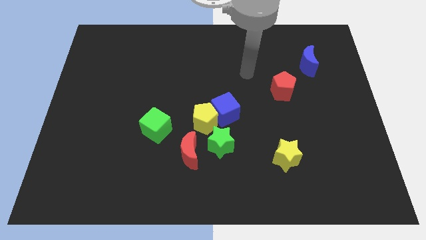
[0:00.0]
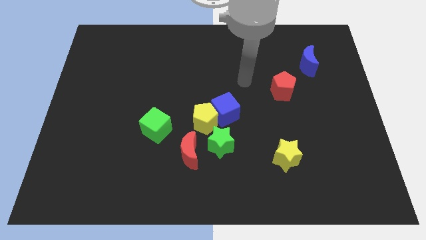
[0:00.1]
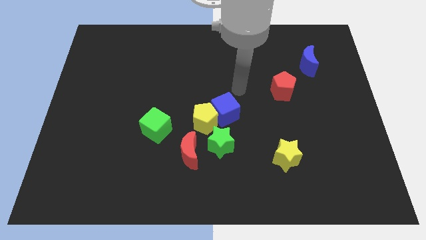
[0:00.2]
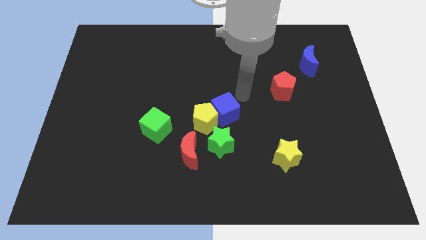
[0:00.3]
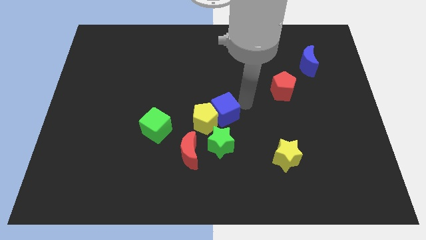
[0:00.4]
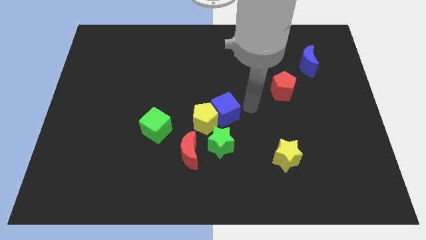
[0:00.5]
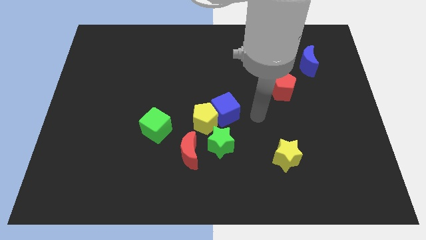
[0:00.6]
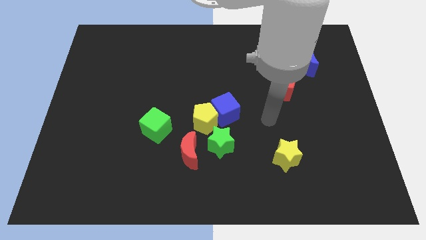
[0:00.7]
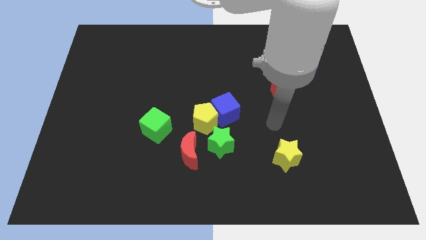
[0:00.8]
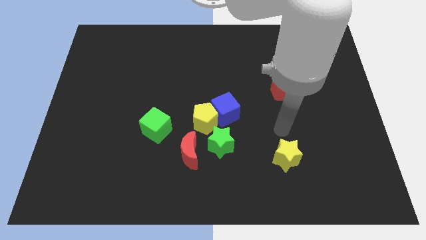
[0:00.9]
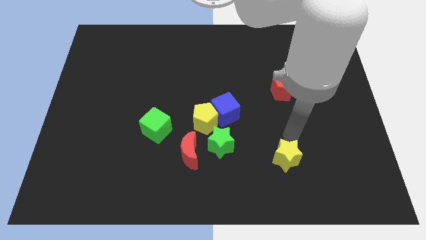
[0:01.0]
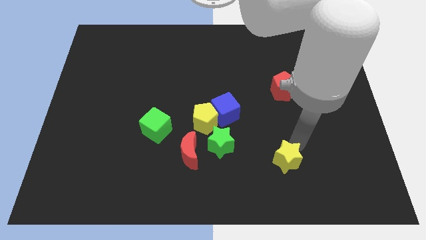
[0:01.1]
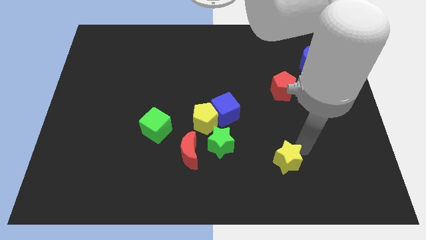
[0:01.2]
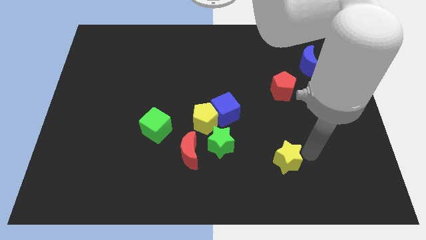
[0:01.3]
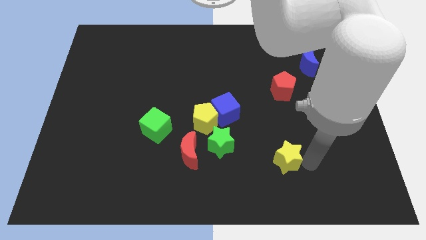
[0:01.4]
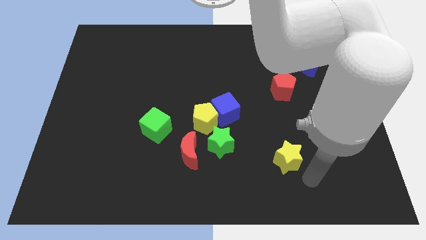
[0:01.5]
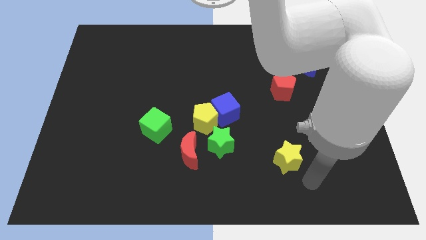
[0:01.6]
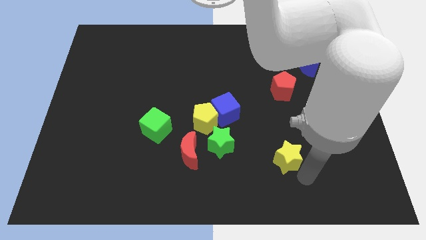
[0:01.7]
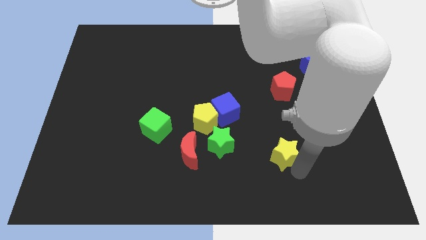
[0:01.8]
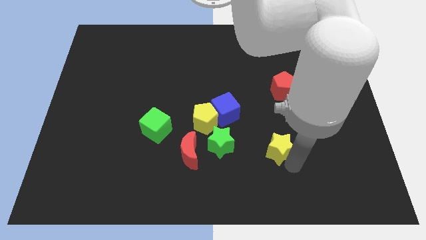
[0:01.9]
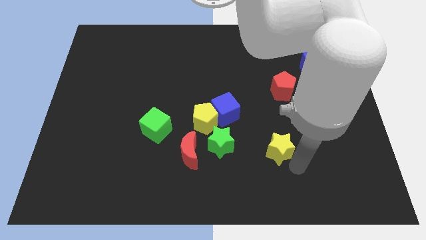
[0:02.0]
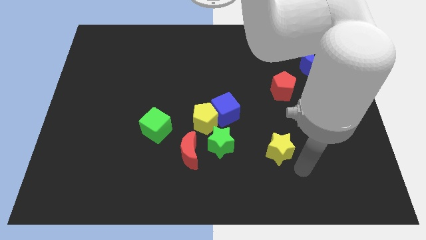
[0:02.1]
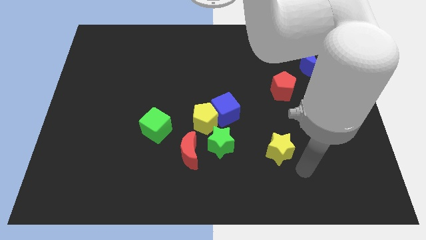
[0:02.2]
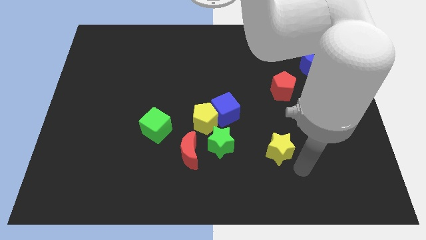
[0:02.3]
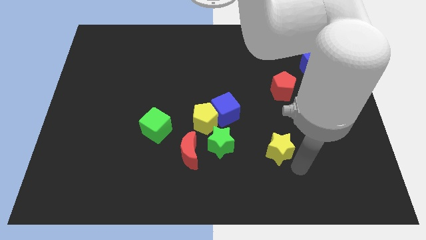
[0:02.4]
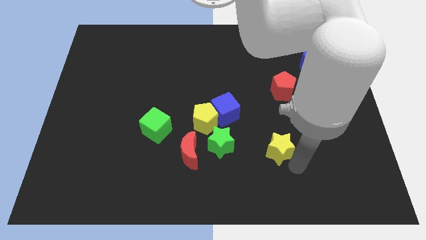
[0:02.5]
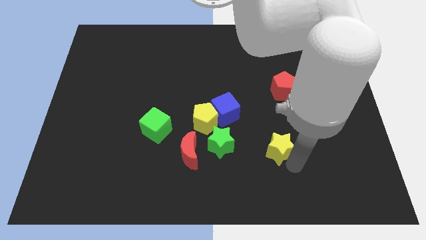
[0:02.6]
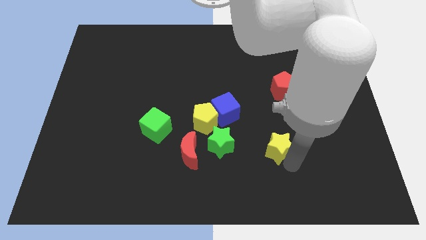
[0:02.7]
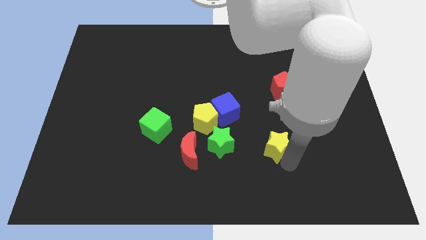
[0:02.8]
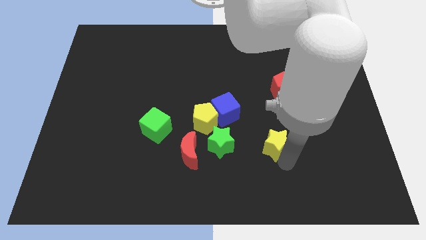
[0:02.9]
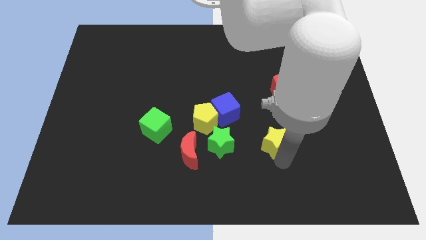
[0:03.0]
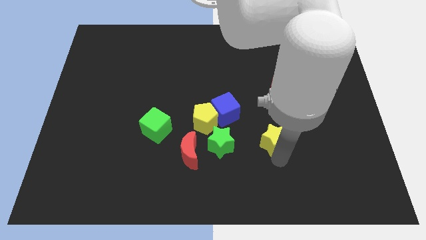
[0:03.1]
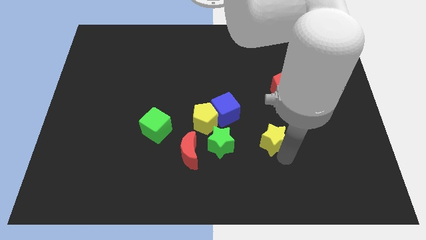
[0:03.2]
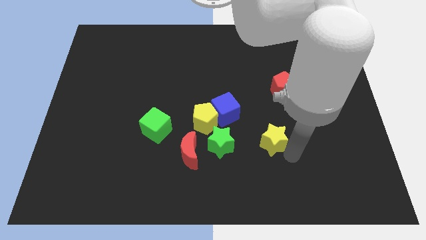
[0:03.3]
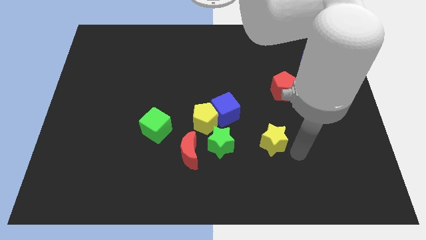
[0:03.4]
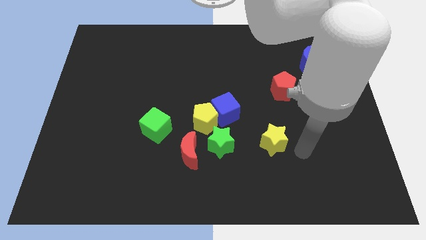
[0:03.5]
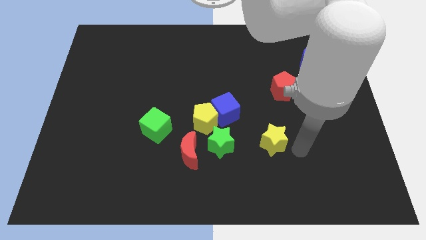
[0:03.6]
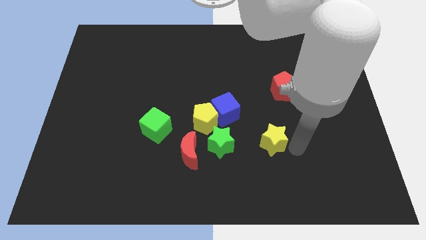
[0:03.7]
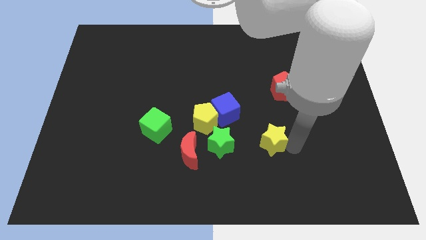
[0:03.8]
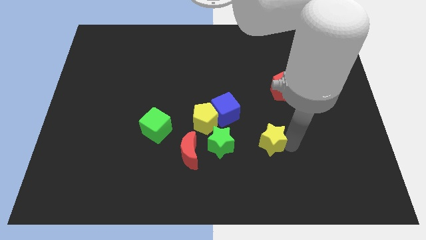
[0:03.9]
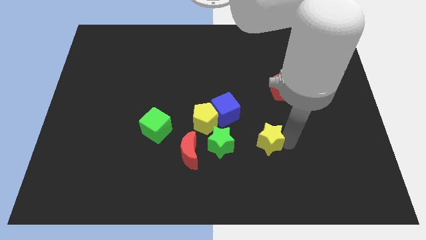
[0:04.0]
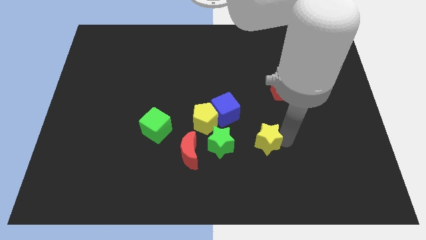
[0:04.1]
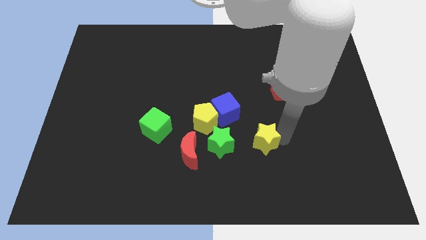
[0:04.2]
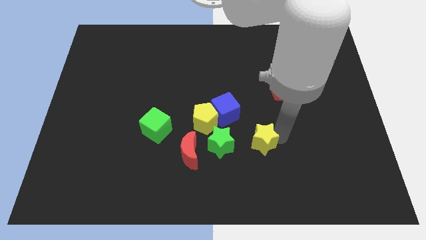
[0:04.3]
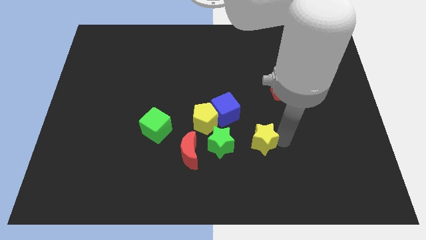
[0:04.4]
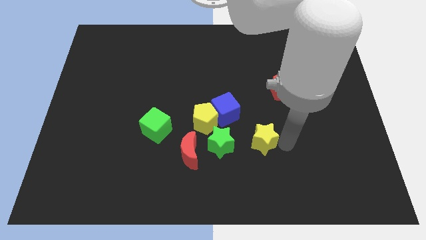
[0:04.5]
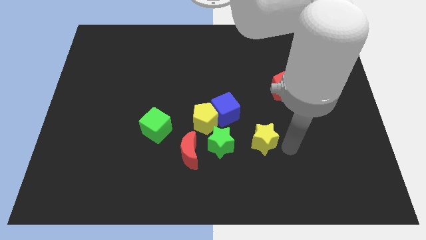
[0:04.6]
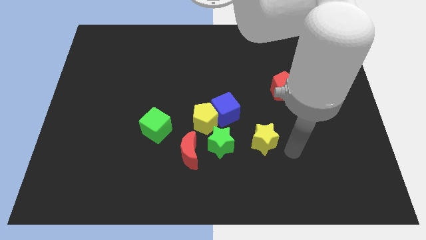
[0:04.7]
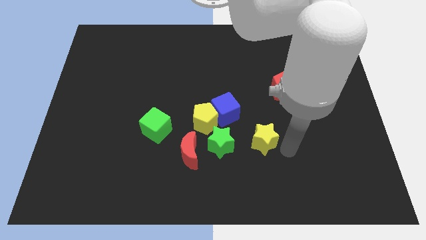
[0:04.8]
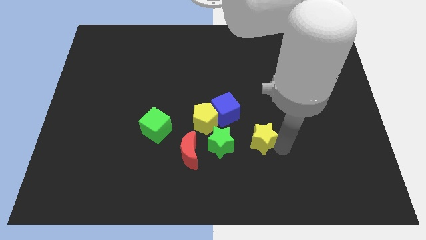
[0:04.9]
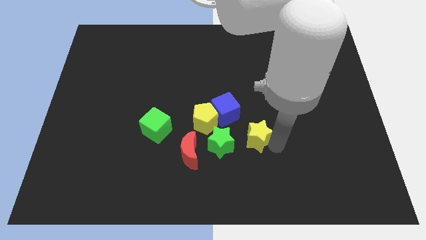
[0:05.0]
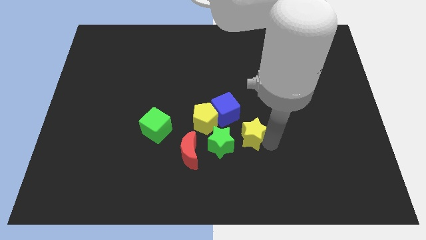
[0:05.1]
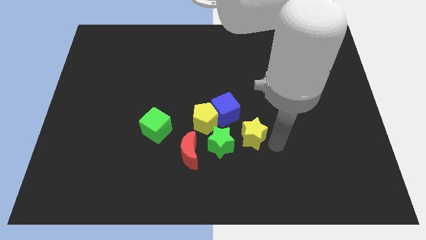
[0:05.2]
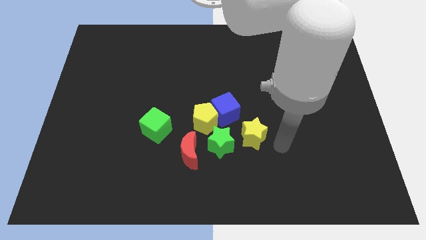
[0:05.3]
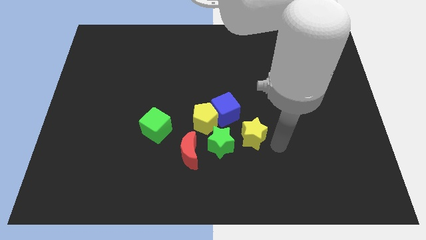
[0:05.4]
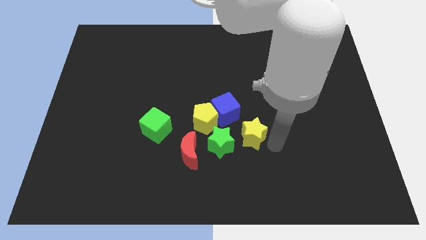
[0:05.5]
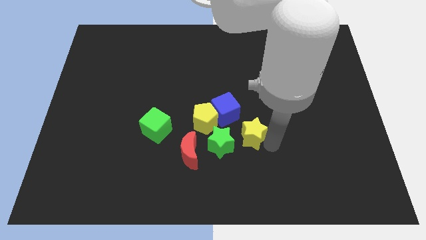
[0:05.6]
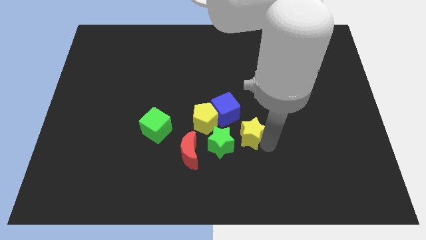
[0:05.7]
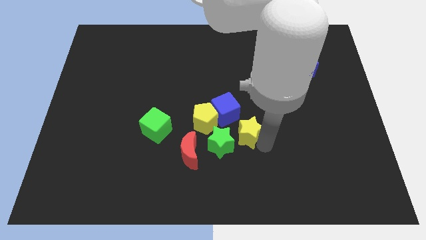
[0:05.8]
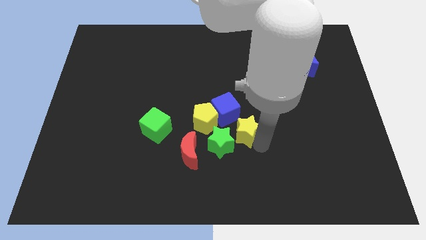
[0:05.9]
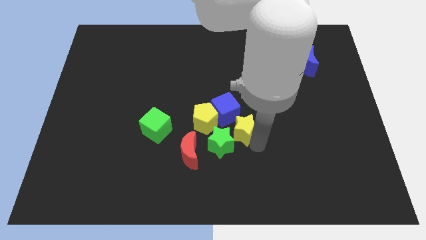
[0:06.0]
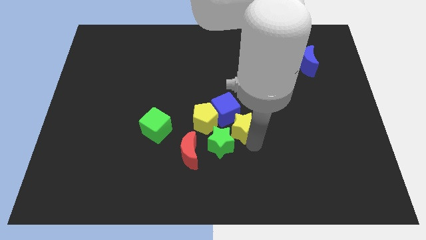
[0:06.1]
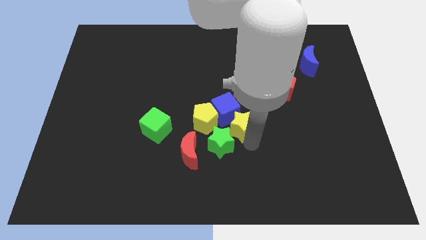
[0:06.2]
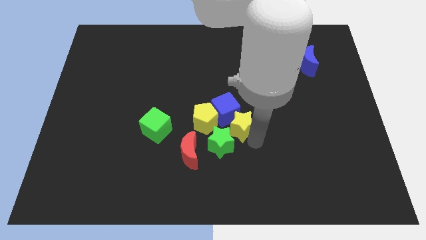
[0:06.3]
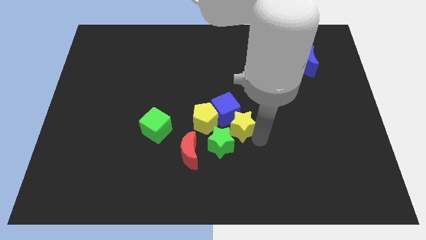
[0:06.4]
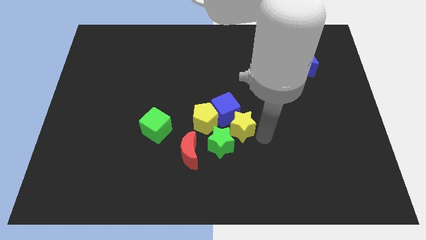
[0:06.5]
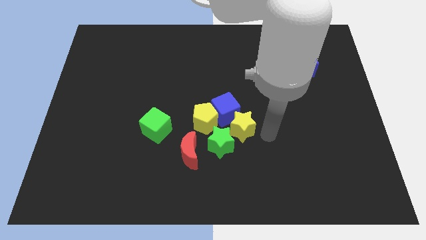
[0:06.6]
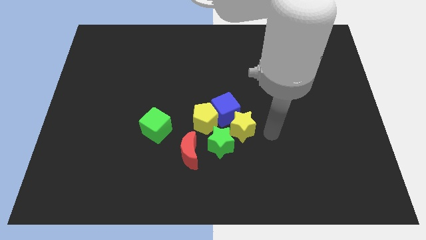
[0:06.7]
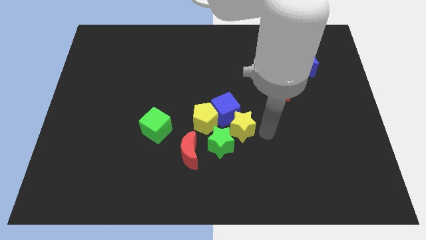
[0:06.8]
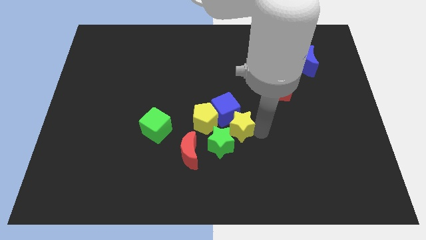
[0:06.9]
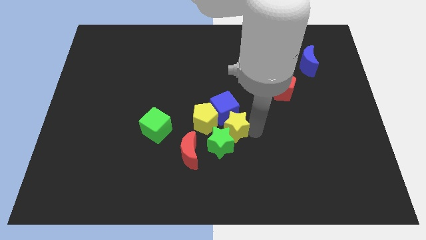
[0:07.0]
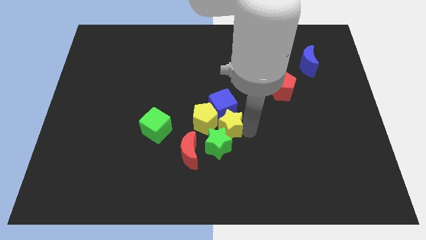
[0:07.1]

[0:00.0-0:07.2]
move the yellow star to the yellow pentagon
